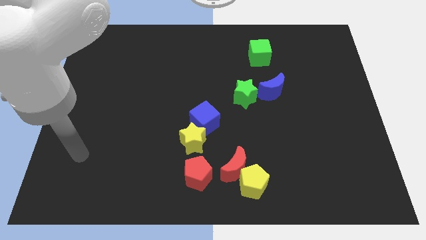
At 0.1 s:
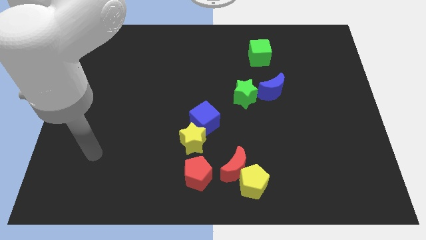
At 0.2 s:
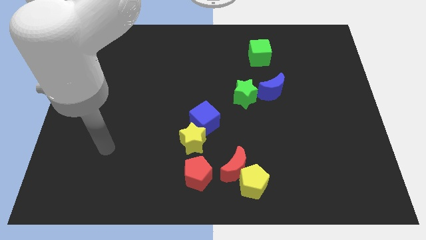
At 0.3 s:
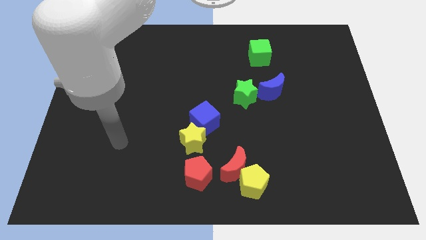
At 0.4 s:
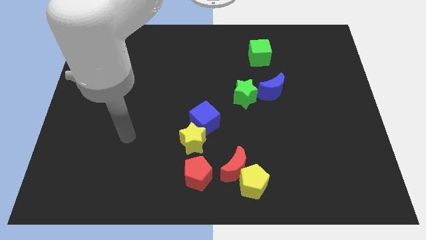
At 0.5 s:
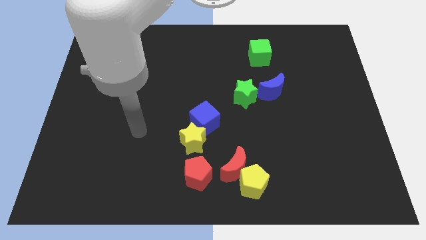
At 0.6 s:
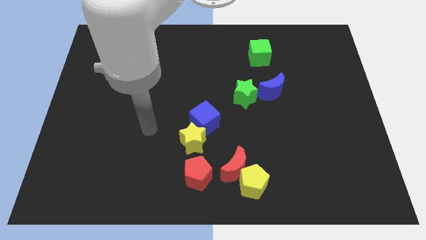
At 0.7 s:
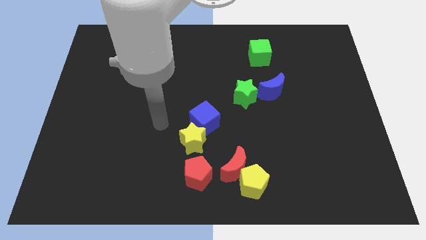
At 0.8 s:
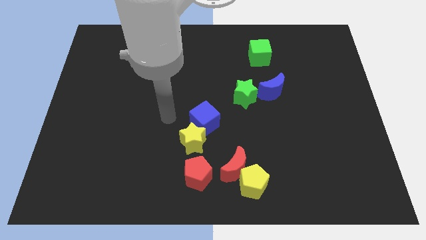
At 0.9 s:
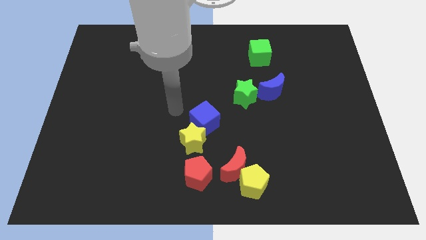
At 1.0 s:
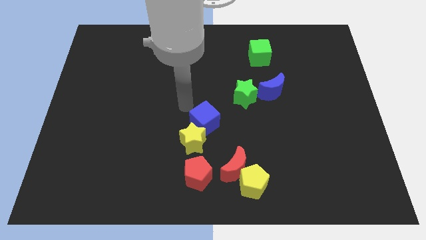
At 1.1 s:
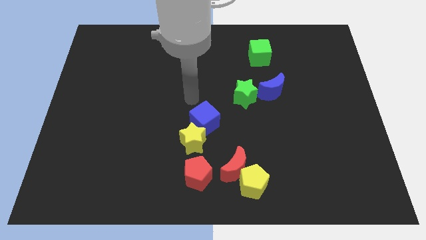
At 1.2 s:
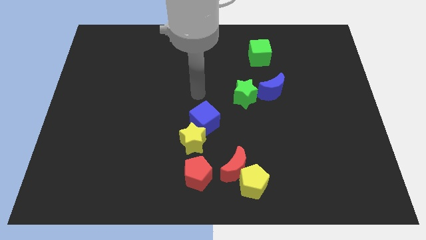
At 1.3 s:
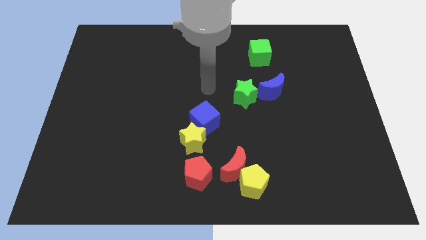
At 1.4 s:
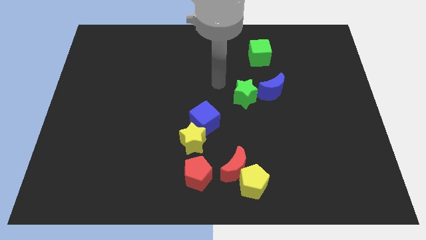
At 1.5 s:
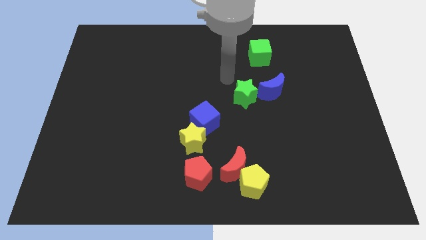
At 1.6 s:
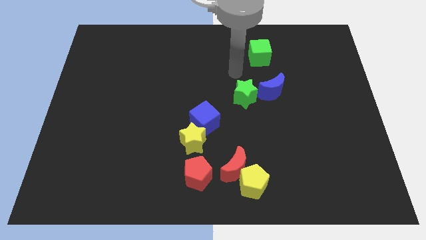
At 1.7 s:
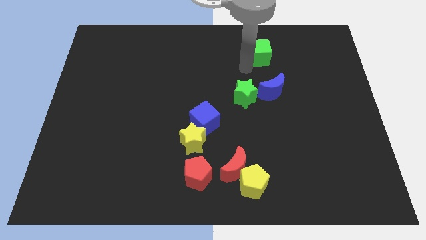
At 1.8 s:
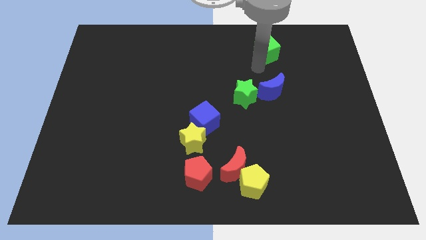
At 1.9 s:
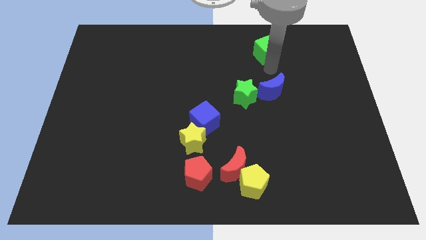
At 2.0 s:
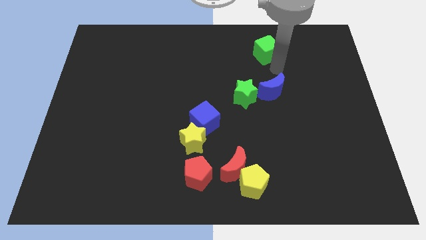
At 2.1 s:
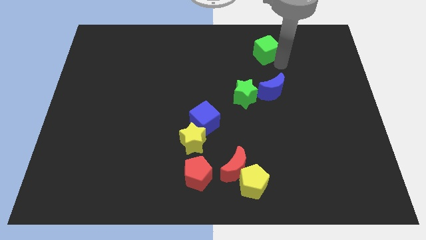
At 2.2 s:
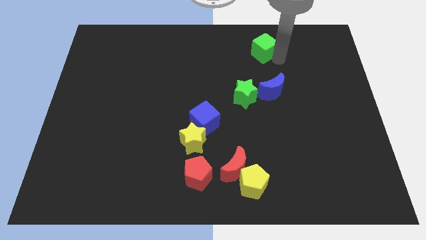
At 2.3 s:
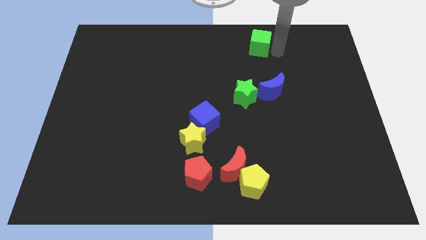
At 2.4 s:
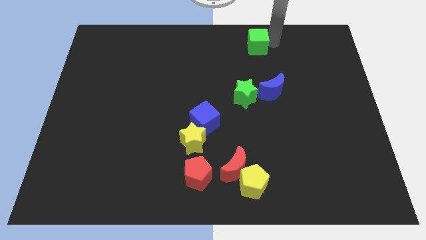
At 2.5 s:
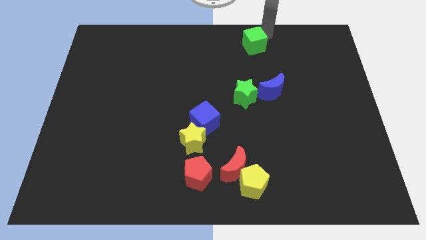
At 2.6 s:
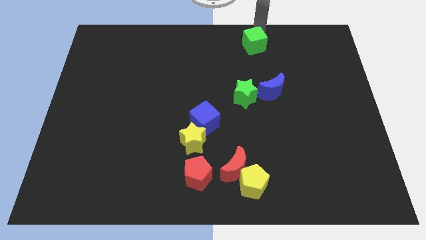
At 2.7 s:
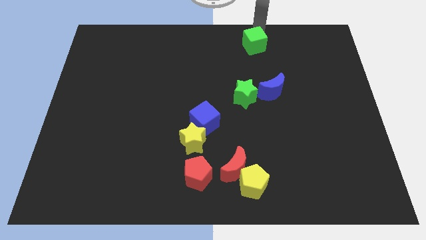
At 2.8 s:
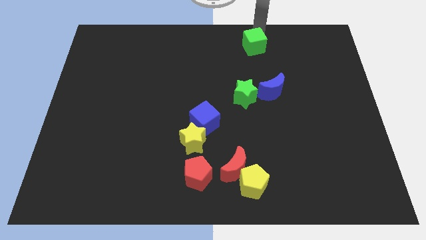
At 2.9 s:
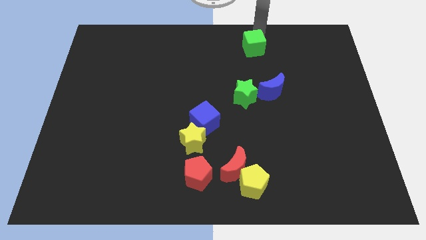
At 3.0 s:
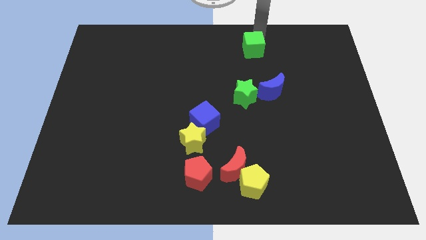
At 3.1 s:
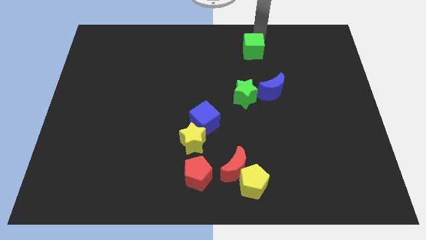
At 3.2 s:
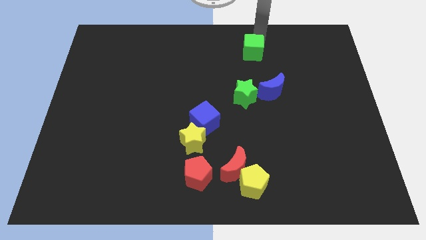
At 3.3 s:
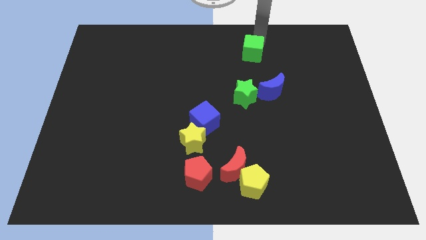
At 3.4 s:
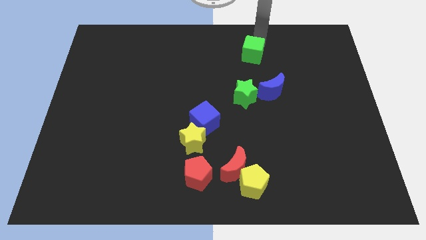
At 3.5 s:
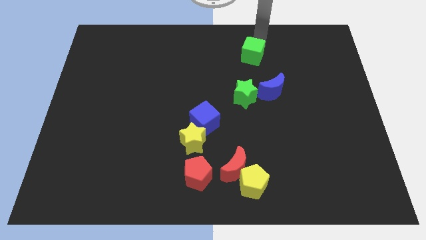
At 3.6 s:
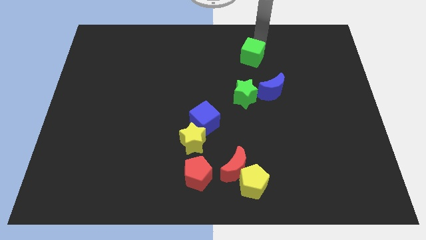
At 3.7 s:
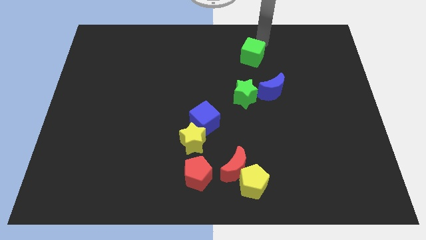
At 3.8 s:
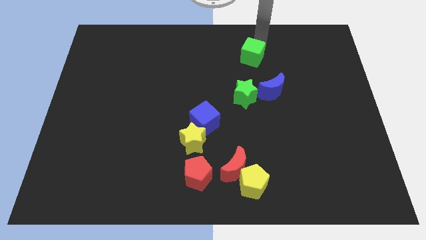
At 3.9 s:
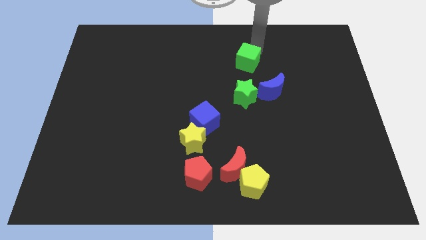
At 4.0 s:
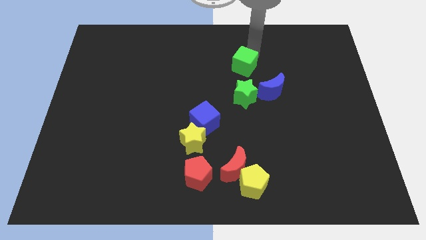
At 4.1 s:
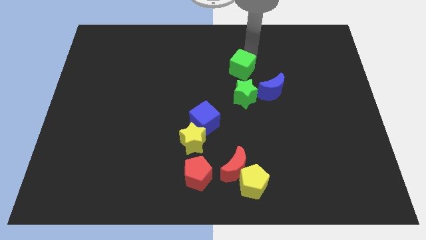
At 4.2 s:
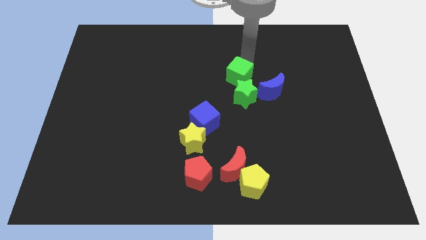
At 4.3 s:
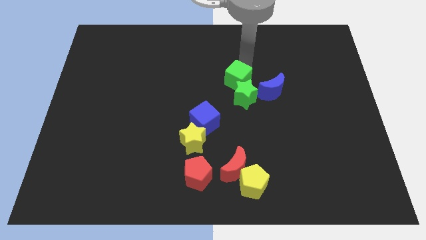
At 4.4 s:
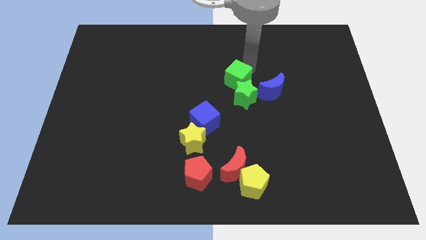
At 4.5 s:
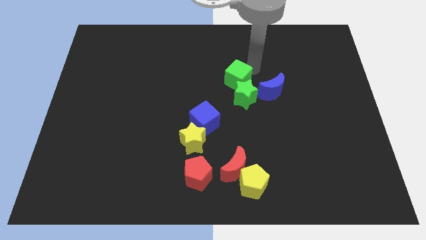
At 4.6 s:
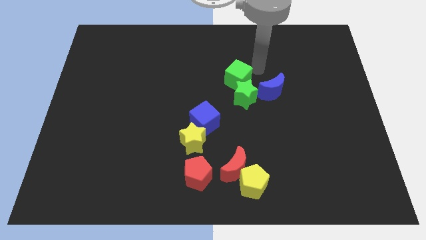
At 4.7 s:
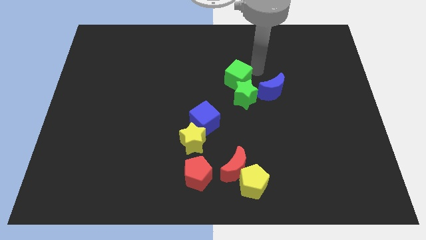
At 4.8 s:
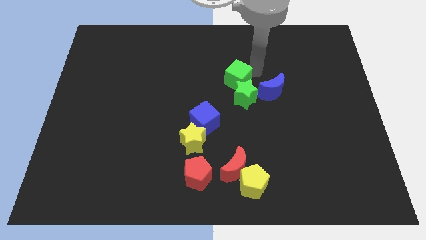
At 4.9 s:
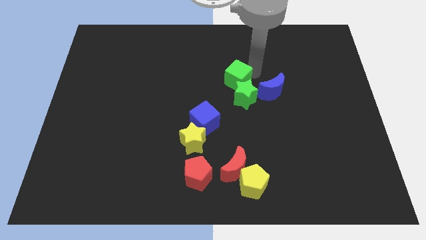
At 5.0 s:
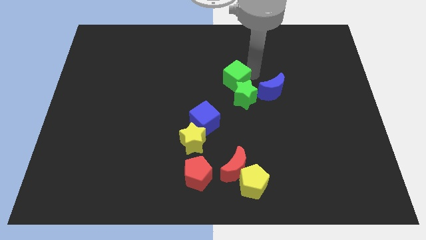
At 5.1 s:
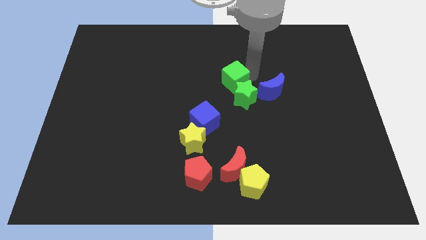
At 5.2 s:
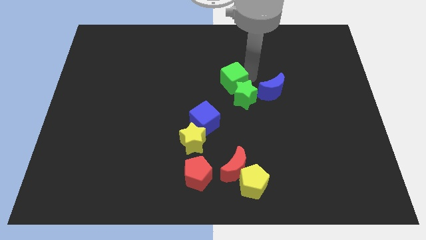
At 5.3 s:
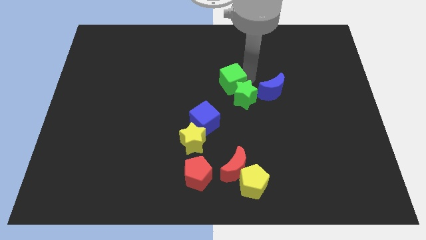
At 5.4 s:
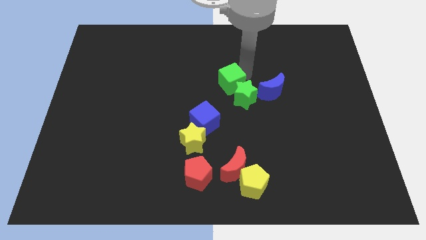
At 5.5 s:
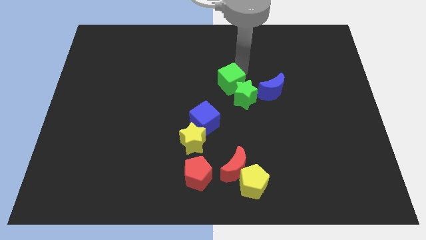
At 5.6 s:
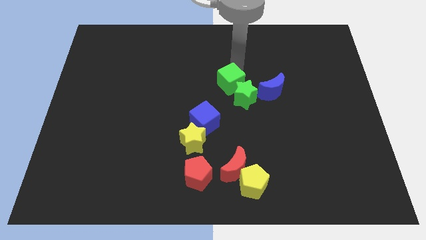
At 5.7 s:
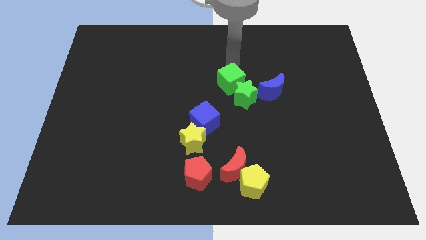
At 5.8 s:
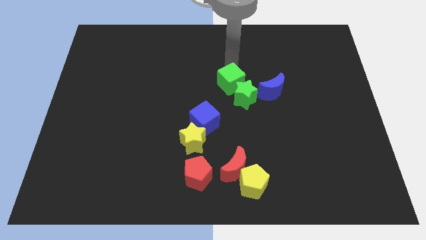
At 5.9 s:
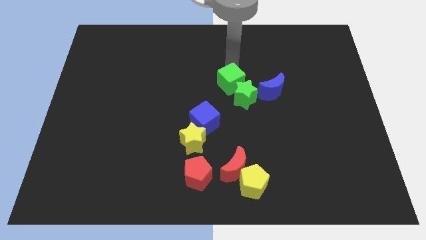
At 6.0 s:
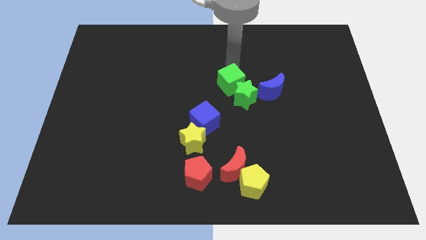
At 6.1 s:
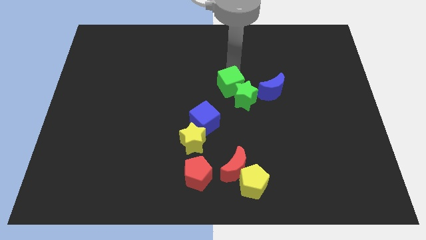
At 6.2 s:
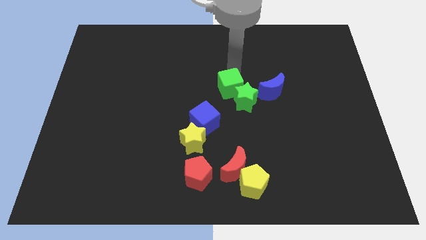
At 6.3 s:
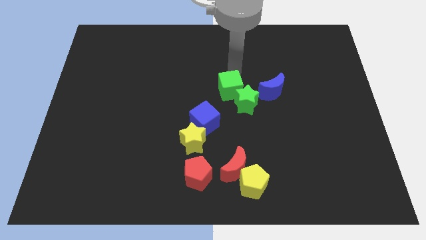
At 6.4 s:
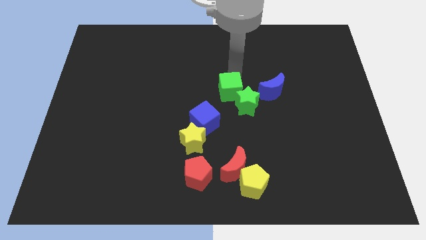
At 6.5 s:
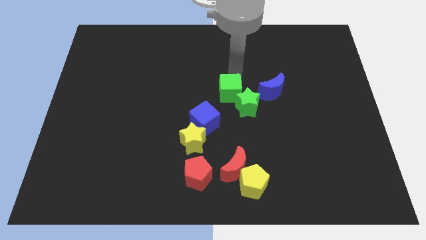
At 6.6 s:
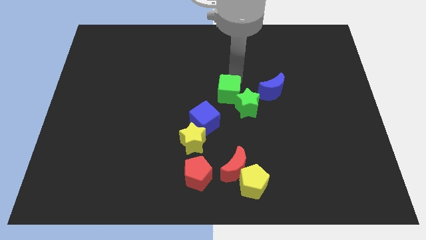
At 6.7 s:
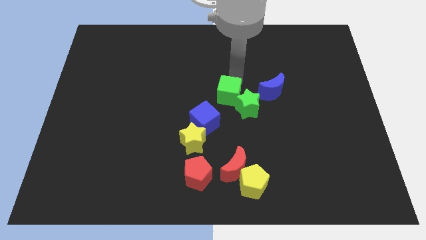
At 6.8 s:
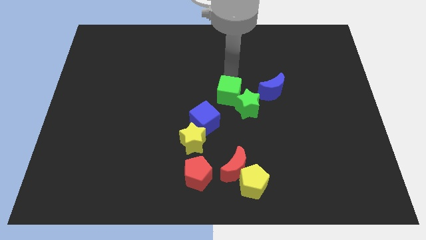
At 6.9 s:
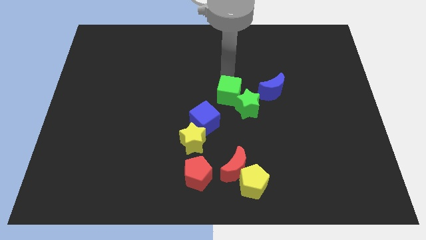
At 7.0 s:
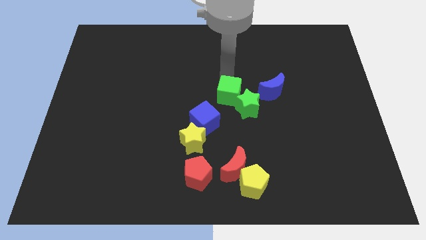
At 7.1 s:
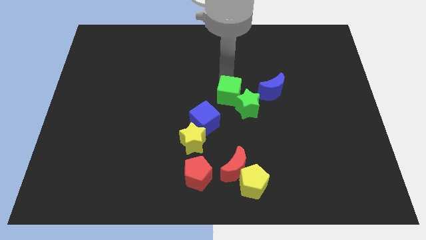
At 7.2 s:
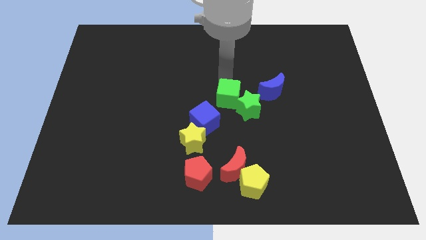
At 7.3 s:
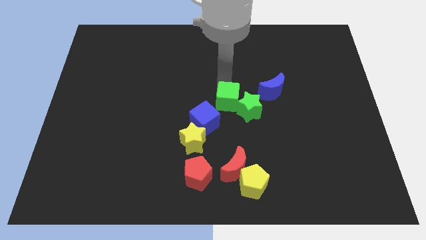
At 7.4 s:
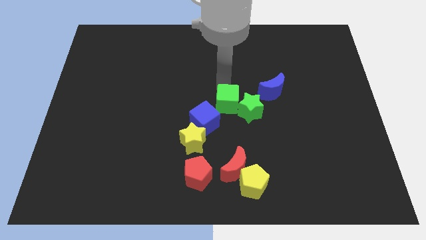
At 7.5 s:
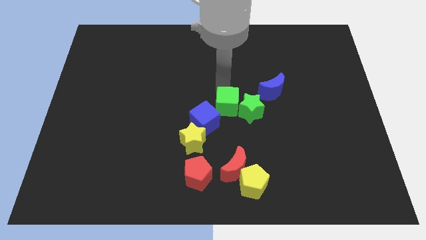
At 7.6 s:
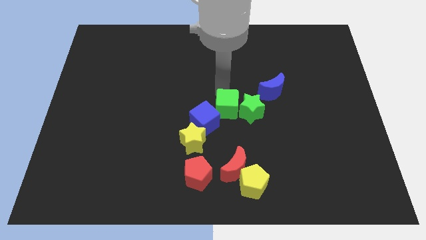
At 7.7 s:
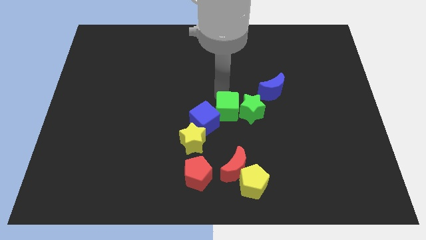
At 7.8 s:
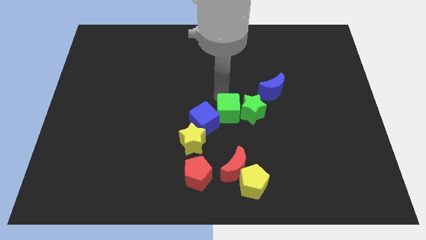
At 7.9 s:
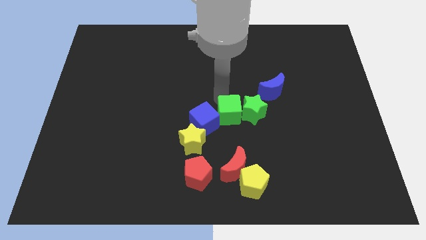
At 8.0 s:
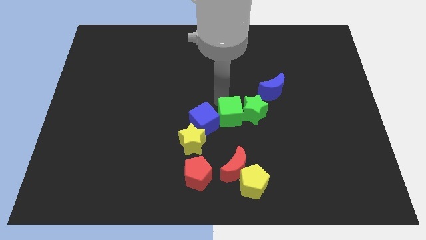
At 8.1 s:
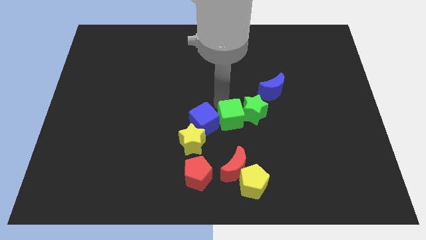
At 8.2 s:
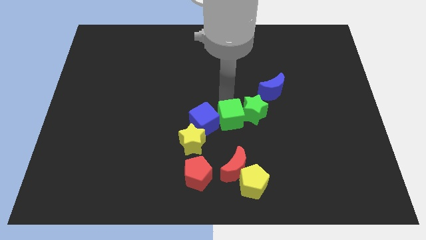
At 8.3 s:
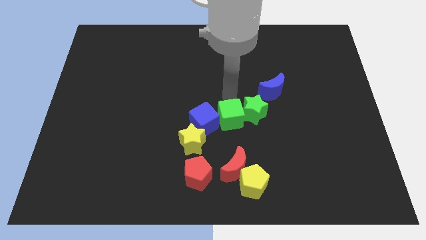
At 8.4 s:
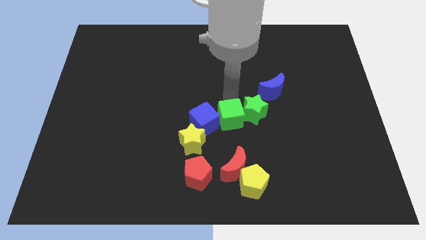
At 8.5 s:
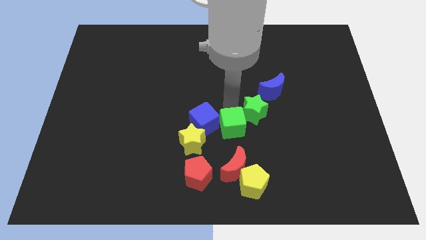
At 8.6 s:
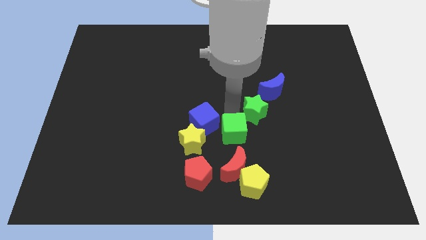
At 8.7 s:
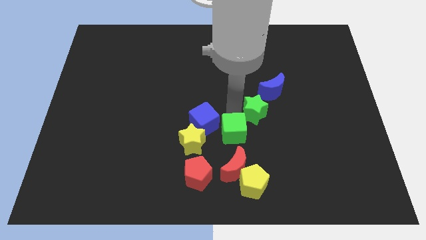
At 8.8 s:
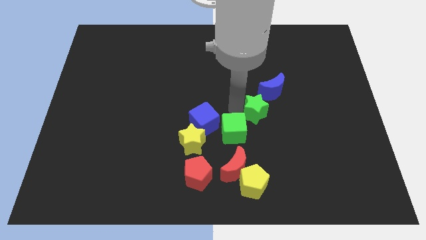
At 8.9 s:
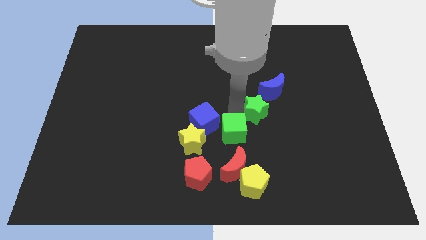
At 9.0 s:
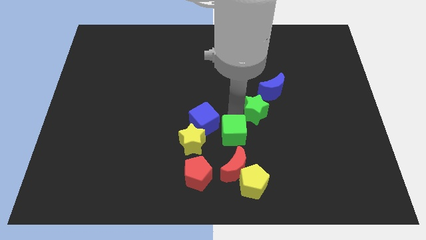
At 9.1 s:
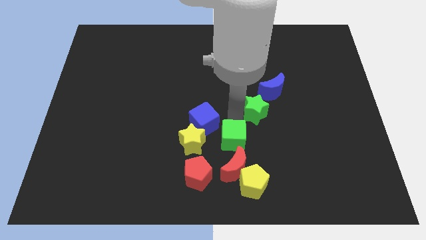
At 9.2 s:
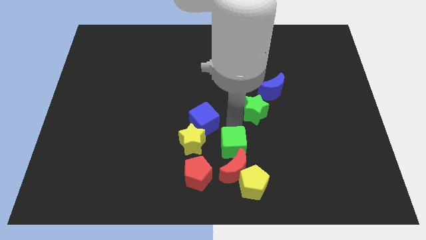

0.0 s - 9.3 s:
push the green cube close to the red moon
